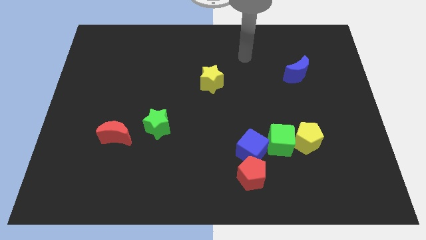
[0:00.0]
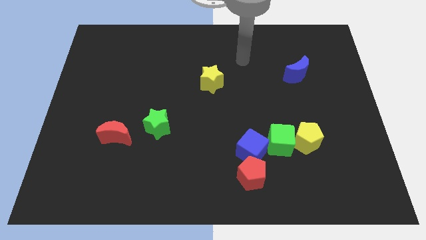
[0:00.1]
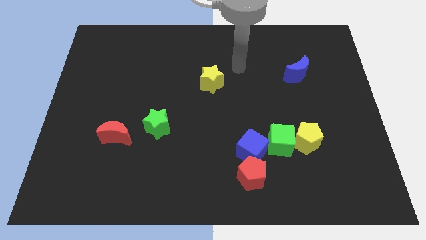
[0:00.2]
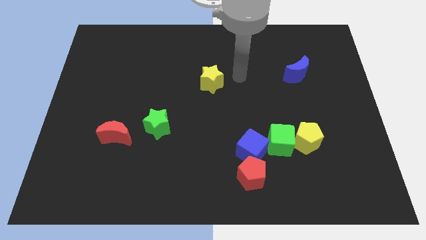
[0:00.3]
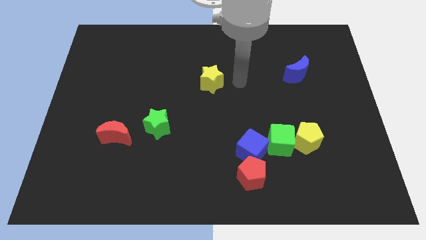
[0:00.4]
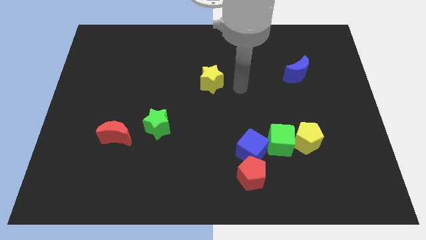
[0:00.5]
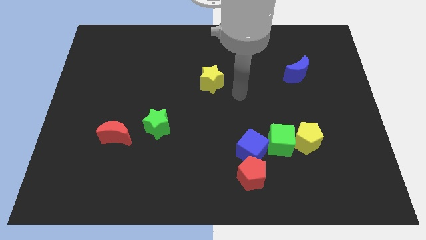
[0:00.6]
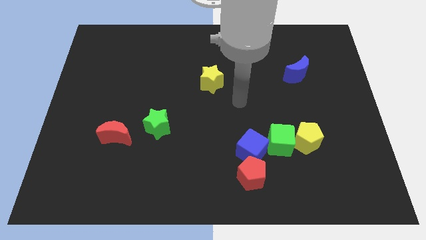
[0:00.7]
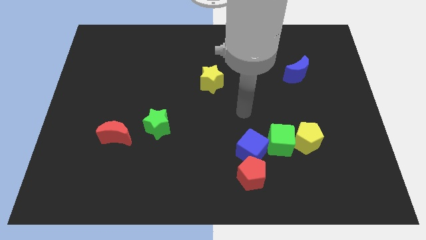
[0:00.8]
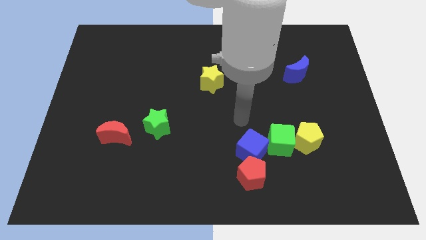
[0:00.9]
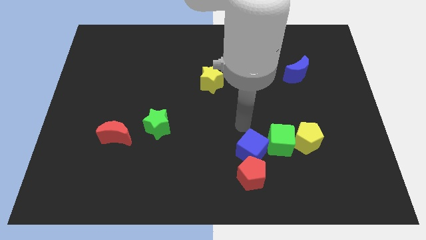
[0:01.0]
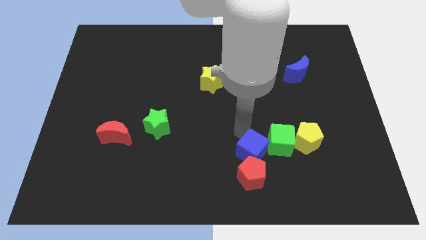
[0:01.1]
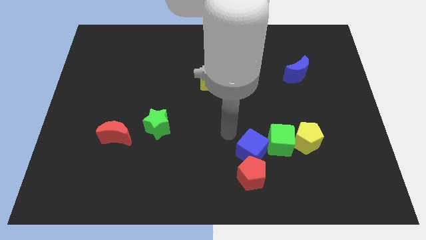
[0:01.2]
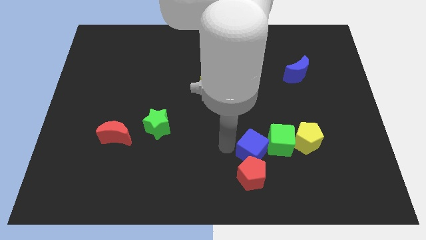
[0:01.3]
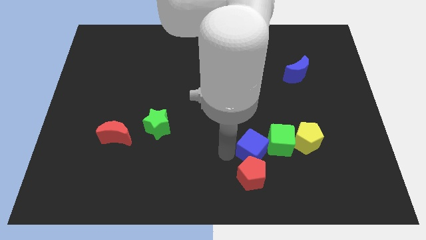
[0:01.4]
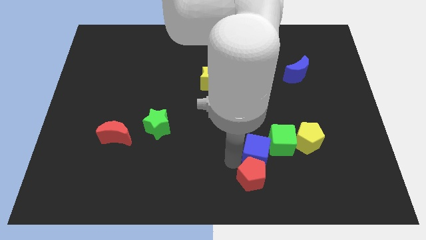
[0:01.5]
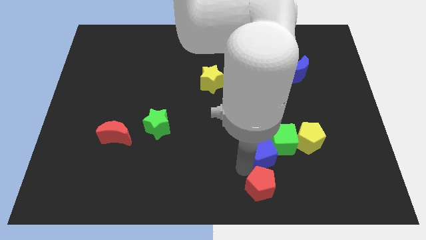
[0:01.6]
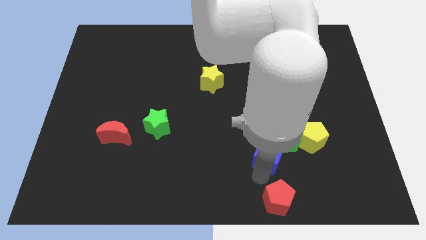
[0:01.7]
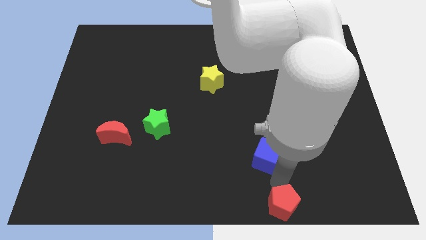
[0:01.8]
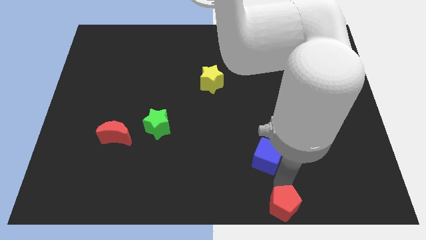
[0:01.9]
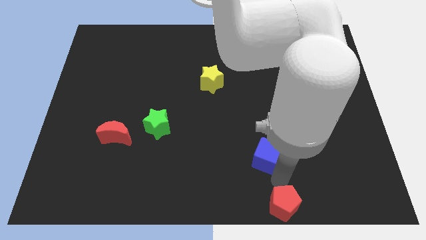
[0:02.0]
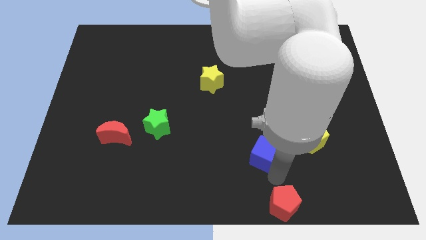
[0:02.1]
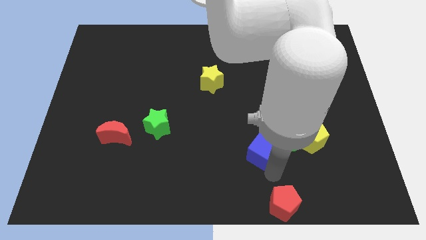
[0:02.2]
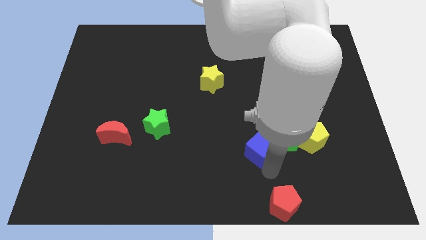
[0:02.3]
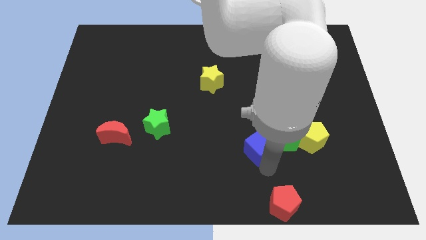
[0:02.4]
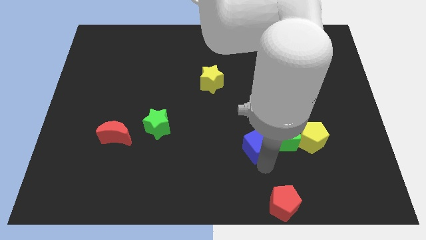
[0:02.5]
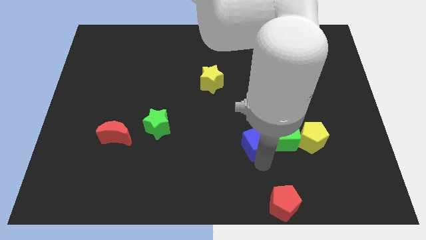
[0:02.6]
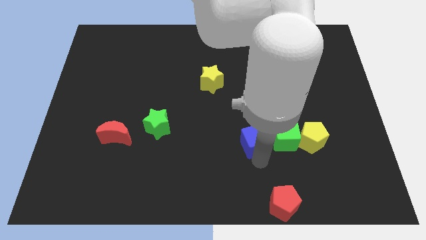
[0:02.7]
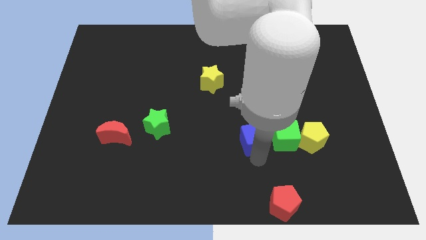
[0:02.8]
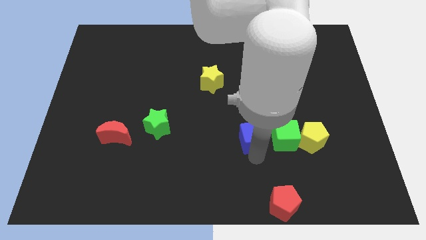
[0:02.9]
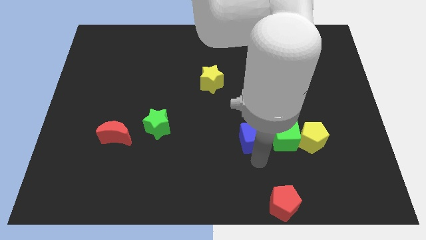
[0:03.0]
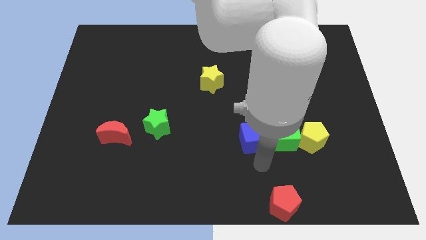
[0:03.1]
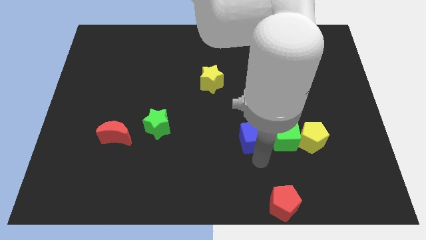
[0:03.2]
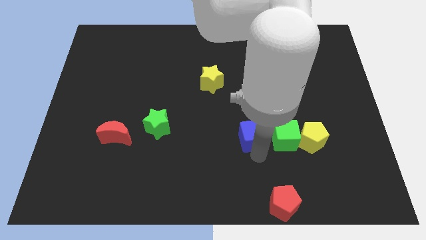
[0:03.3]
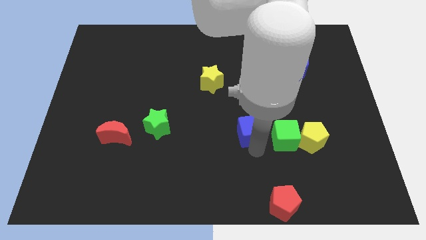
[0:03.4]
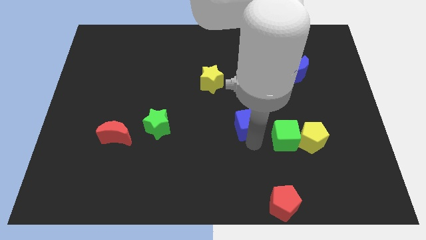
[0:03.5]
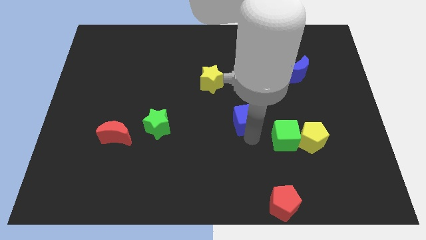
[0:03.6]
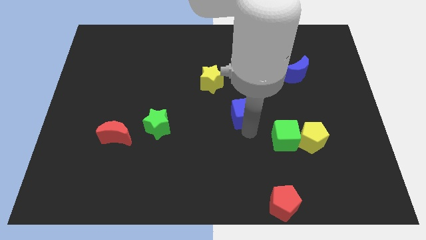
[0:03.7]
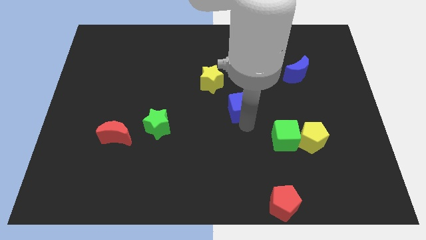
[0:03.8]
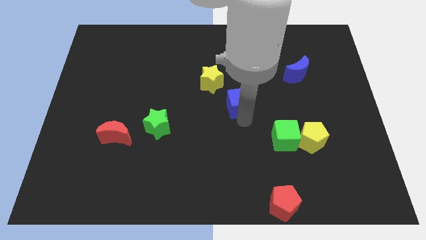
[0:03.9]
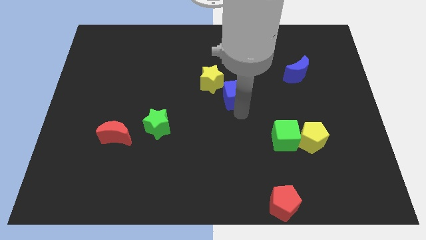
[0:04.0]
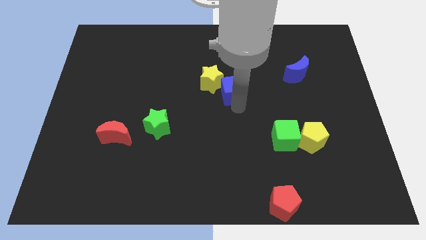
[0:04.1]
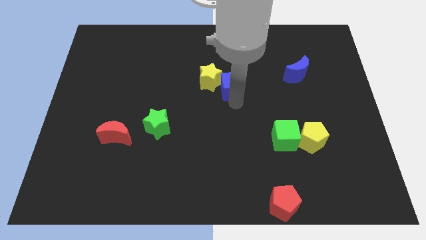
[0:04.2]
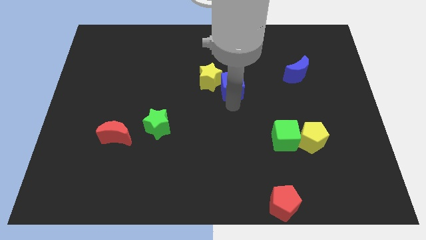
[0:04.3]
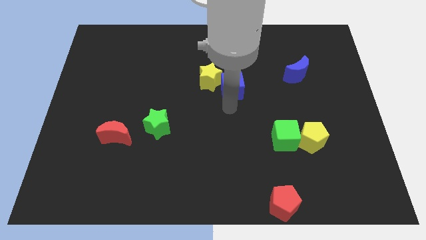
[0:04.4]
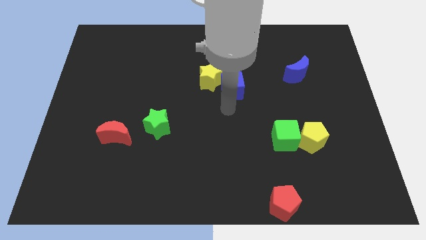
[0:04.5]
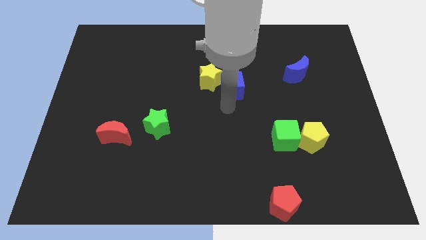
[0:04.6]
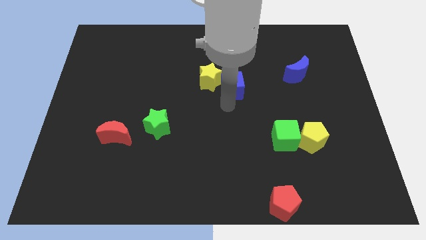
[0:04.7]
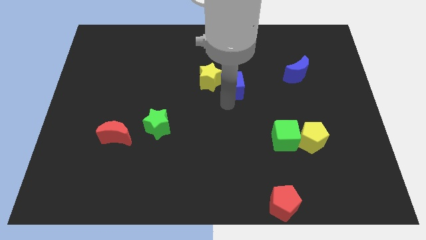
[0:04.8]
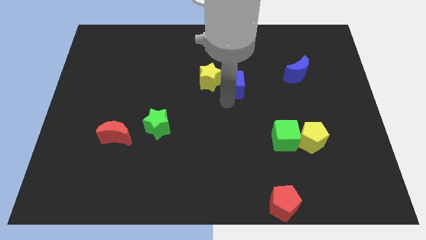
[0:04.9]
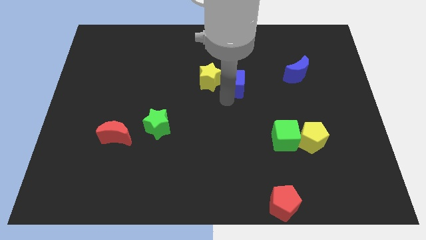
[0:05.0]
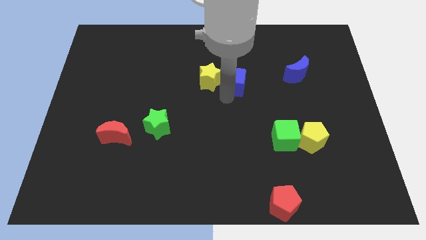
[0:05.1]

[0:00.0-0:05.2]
slide the blue cube to the top right of the yellow star
